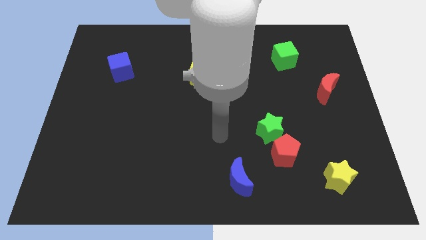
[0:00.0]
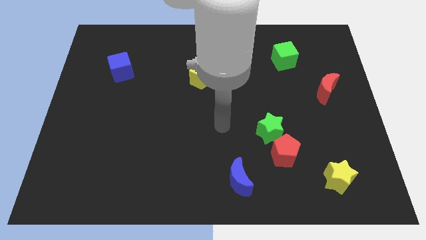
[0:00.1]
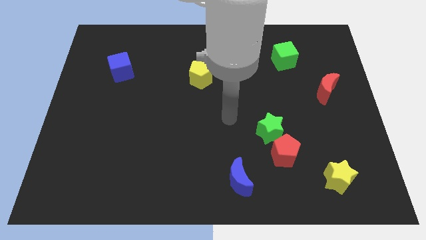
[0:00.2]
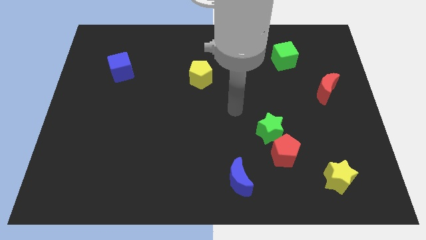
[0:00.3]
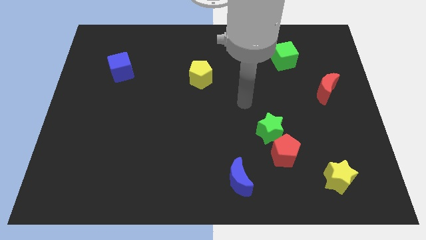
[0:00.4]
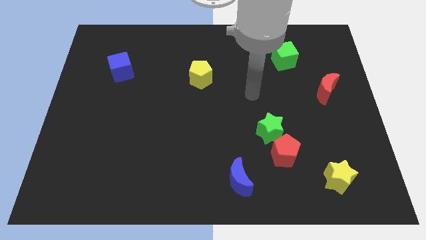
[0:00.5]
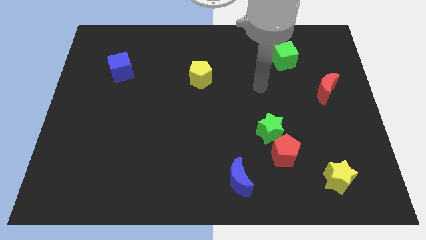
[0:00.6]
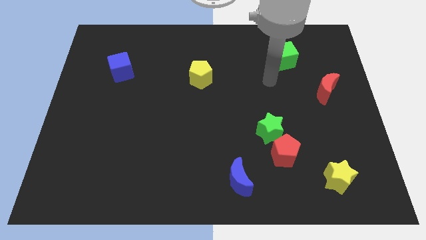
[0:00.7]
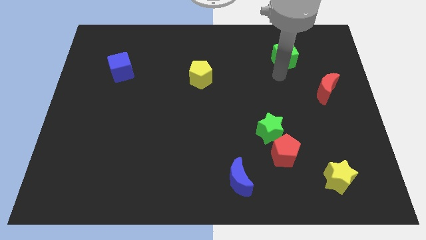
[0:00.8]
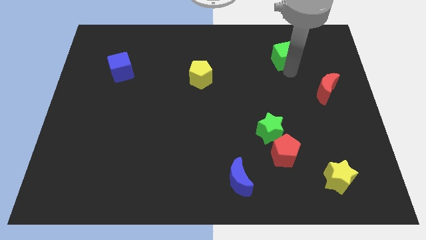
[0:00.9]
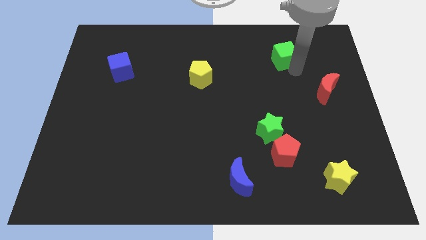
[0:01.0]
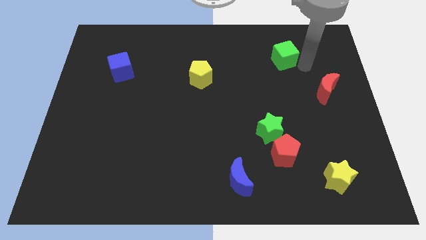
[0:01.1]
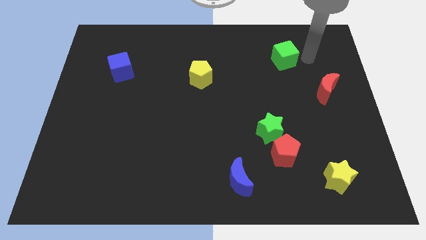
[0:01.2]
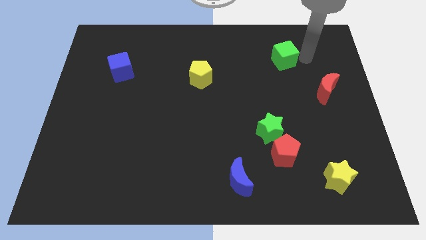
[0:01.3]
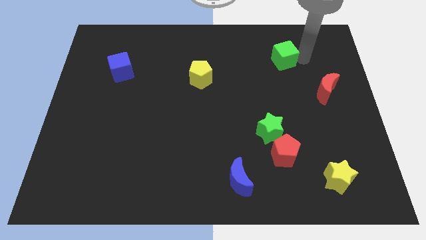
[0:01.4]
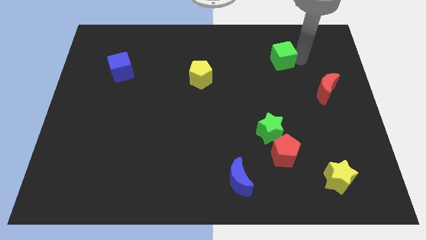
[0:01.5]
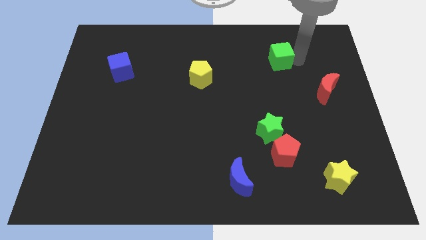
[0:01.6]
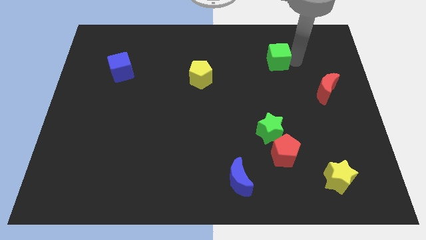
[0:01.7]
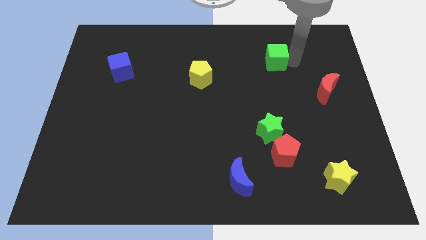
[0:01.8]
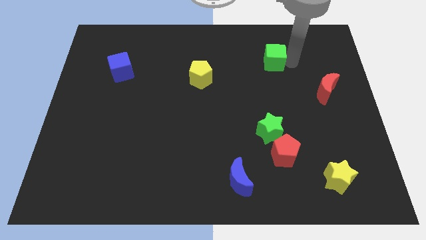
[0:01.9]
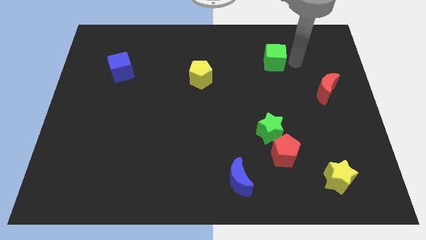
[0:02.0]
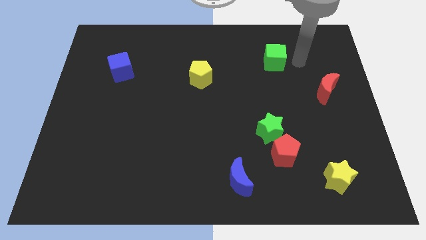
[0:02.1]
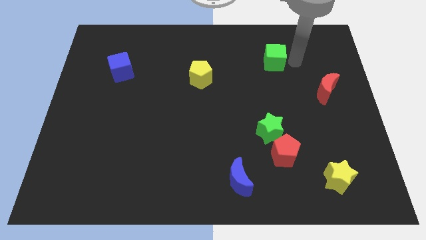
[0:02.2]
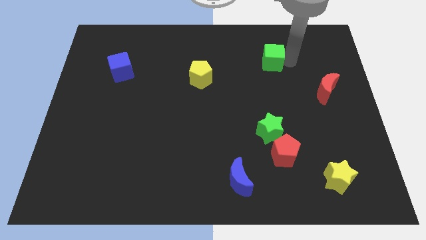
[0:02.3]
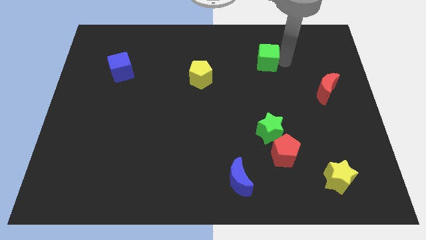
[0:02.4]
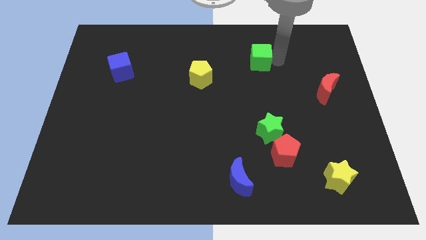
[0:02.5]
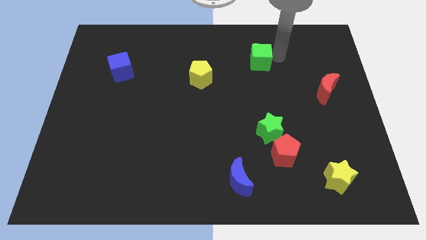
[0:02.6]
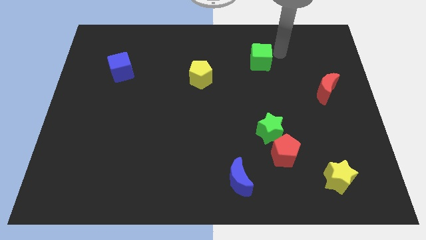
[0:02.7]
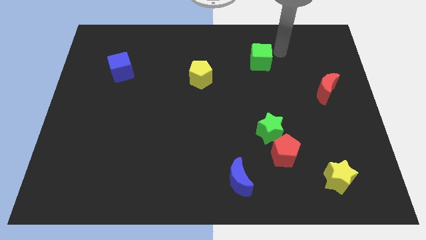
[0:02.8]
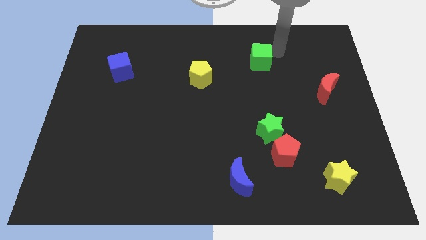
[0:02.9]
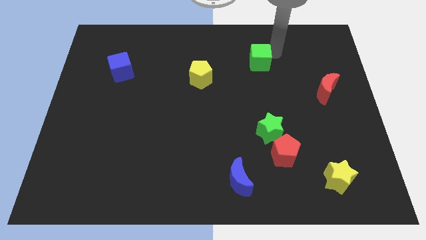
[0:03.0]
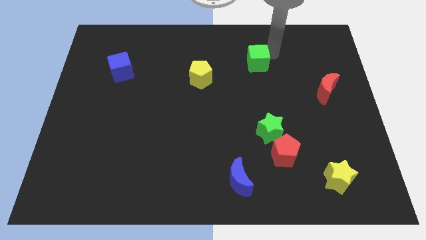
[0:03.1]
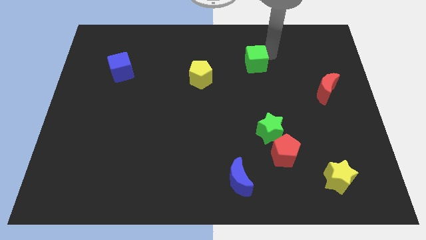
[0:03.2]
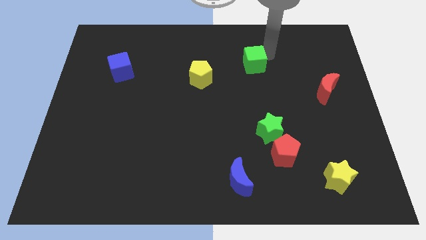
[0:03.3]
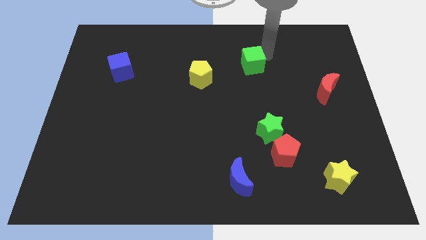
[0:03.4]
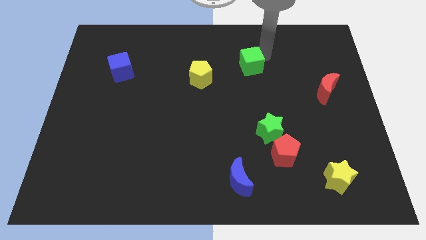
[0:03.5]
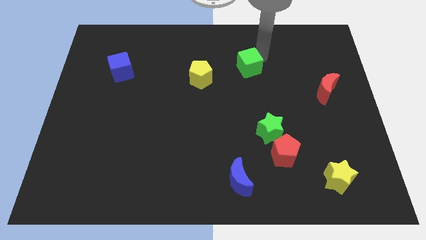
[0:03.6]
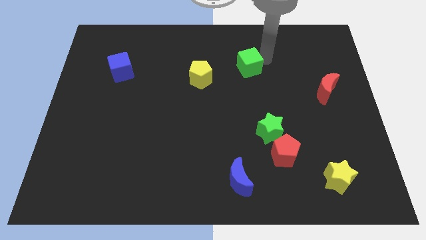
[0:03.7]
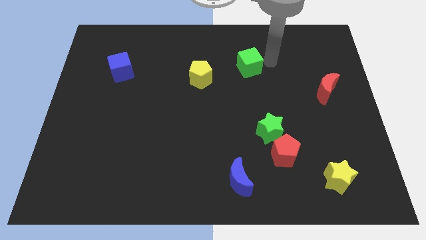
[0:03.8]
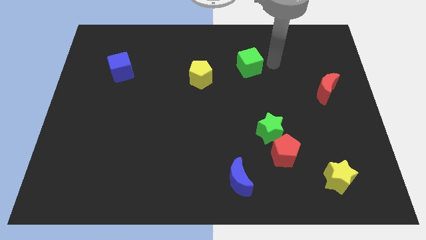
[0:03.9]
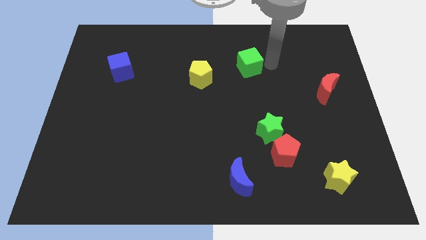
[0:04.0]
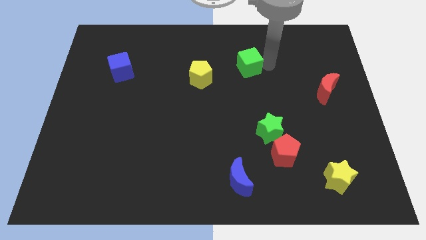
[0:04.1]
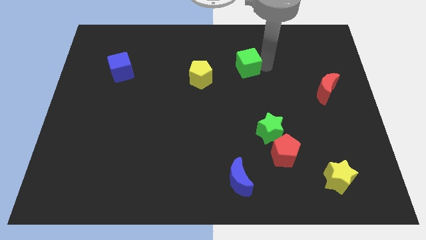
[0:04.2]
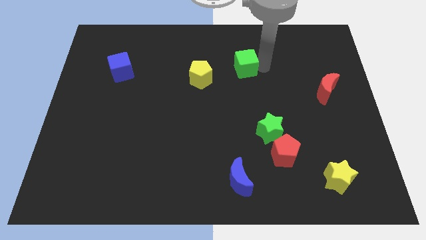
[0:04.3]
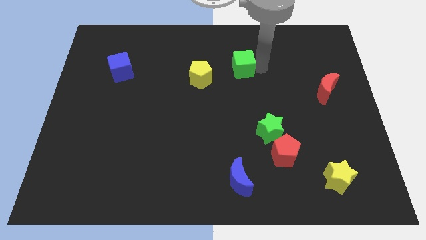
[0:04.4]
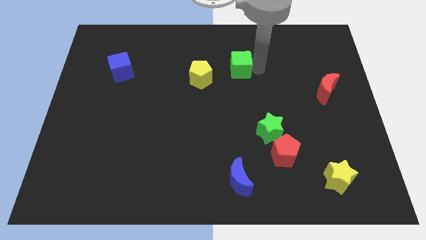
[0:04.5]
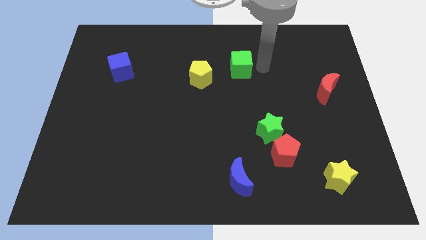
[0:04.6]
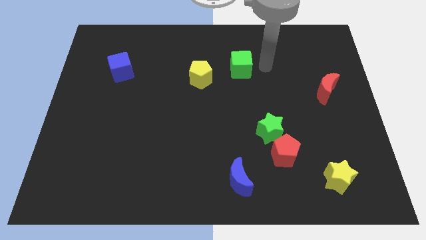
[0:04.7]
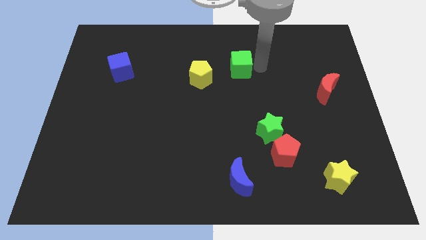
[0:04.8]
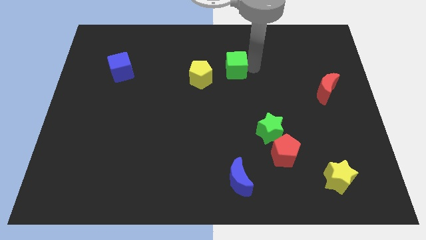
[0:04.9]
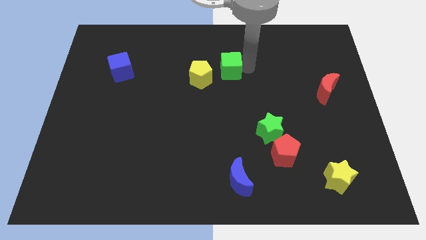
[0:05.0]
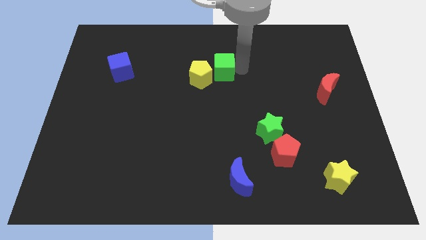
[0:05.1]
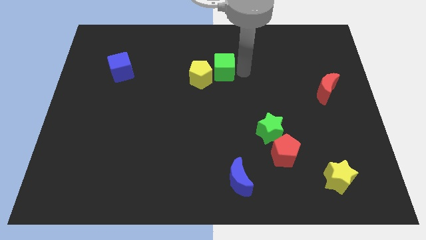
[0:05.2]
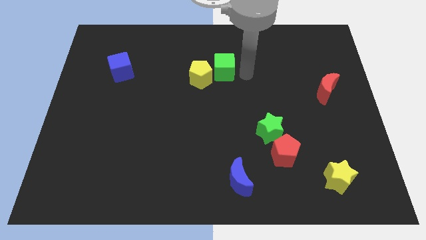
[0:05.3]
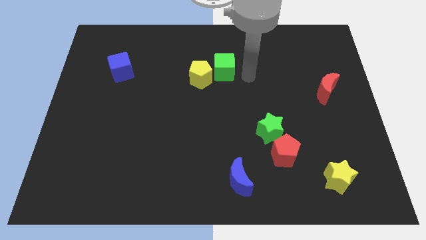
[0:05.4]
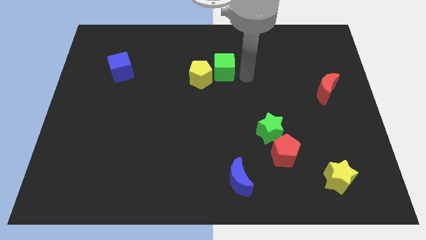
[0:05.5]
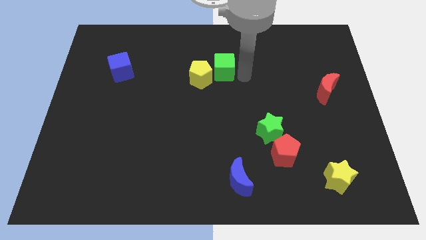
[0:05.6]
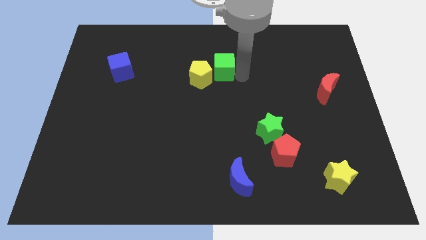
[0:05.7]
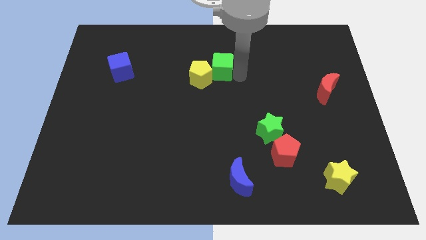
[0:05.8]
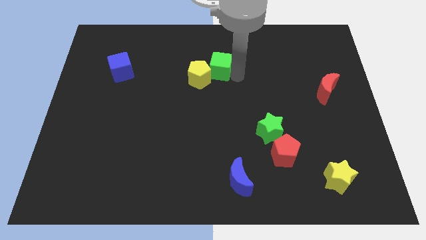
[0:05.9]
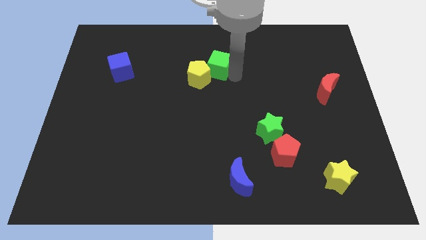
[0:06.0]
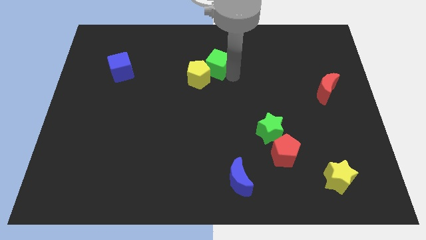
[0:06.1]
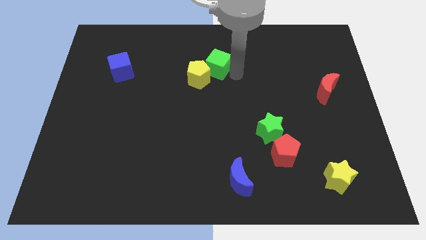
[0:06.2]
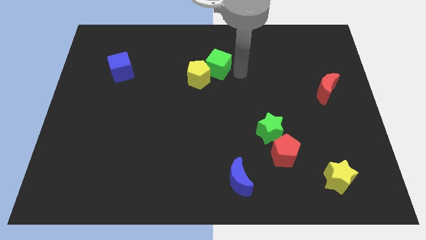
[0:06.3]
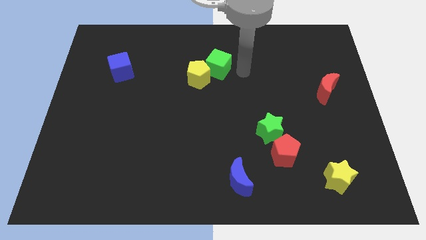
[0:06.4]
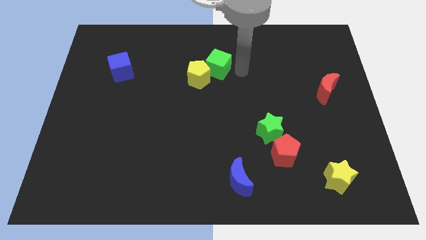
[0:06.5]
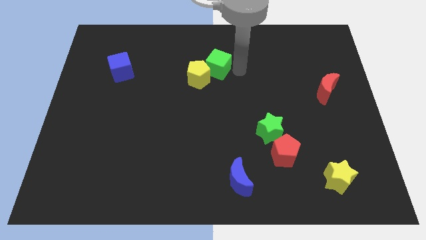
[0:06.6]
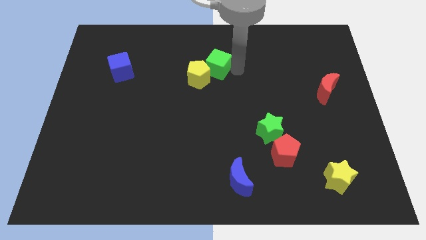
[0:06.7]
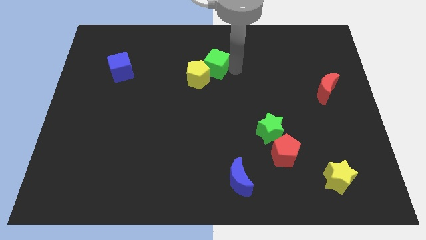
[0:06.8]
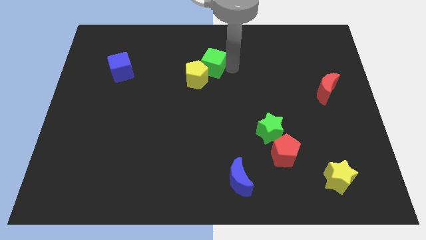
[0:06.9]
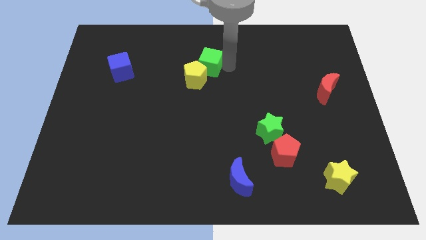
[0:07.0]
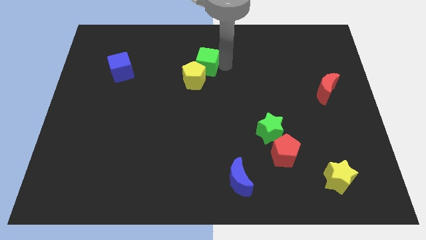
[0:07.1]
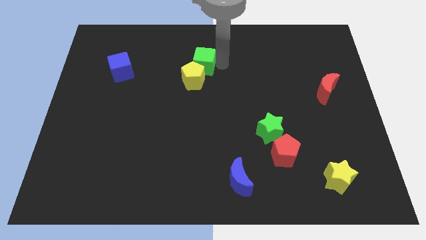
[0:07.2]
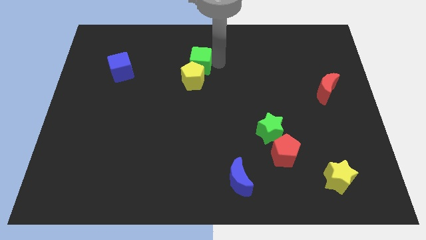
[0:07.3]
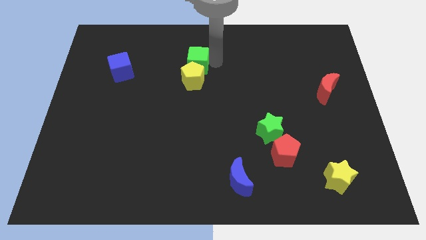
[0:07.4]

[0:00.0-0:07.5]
put the green cube to the top left of the yellow pentagon
